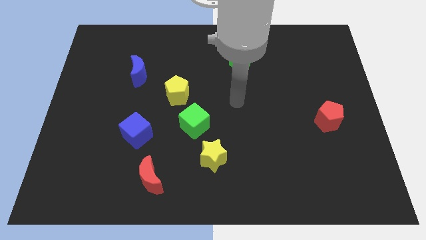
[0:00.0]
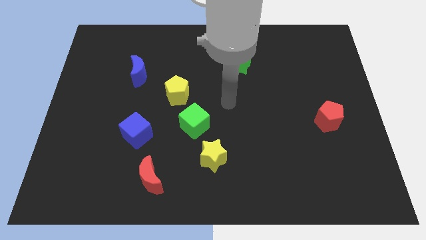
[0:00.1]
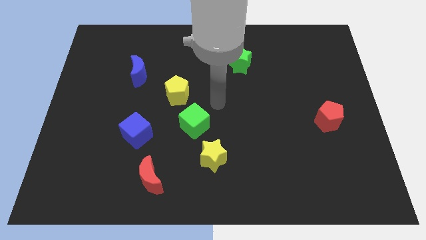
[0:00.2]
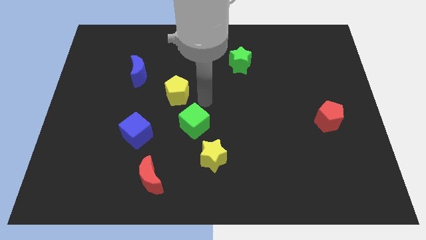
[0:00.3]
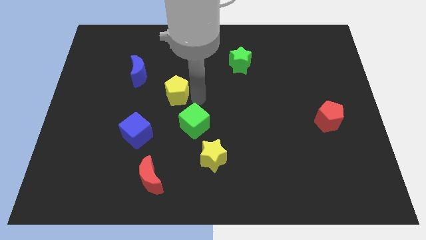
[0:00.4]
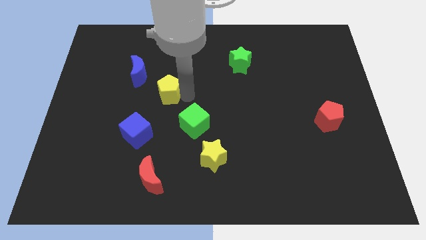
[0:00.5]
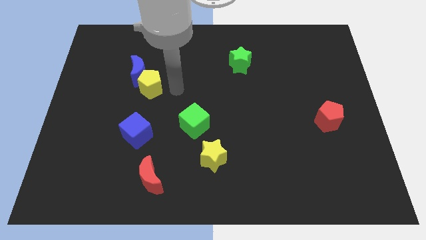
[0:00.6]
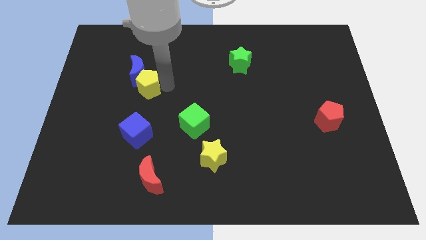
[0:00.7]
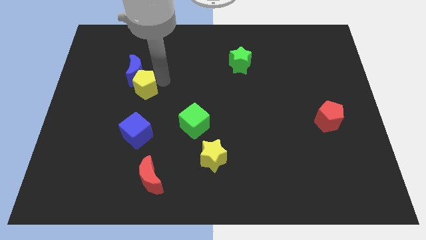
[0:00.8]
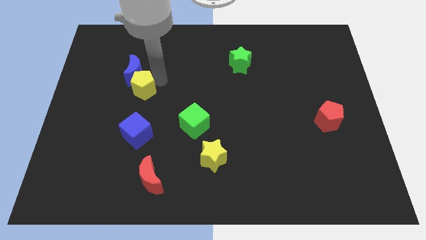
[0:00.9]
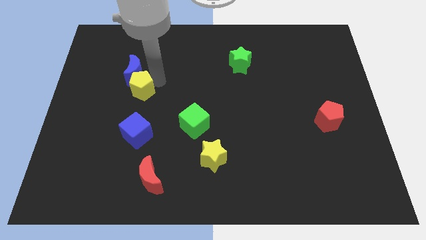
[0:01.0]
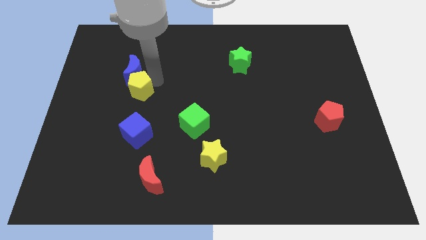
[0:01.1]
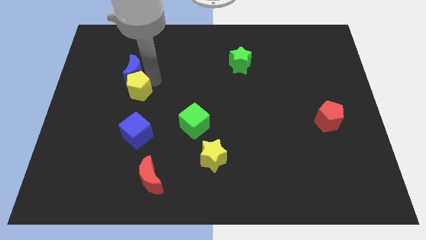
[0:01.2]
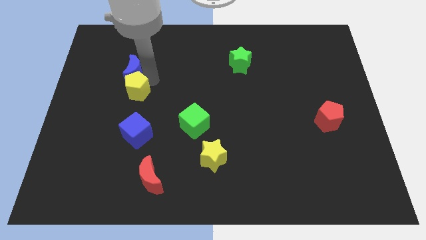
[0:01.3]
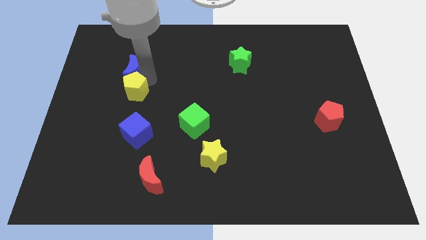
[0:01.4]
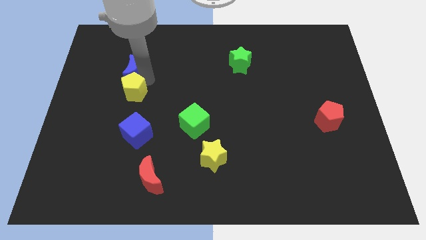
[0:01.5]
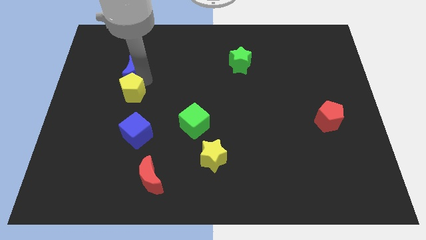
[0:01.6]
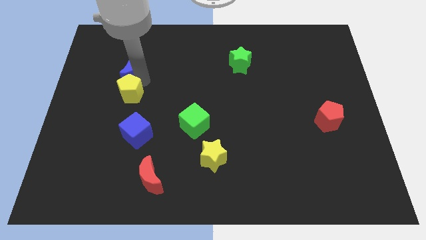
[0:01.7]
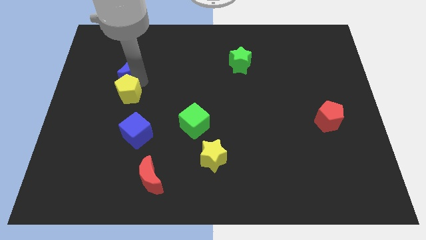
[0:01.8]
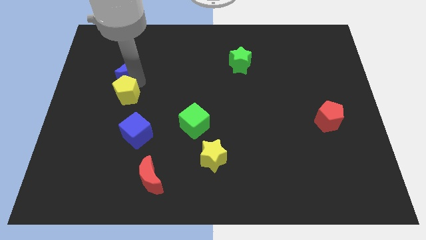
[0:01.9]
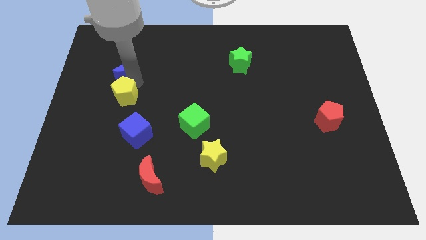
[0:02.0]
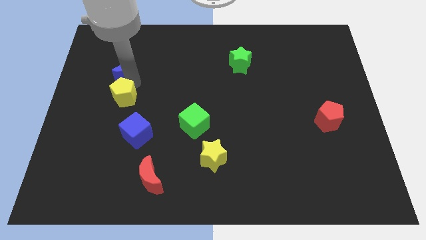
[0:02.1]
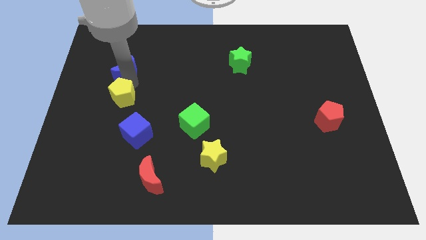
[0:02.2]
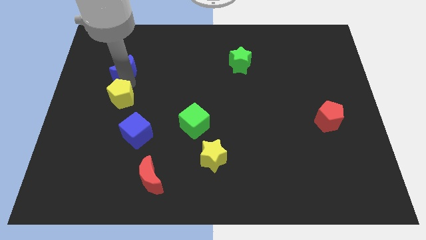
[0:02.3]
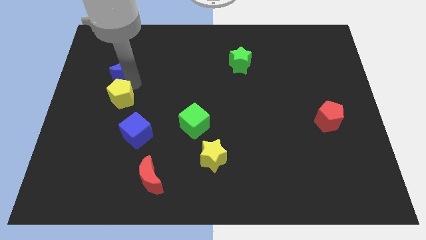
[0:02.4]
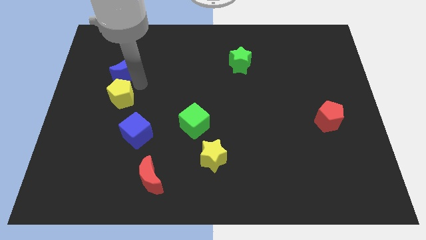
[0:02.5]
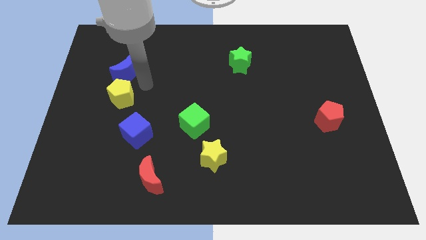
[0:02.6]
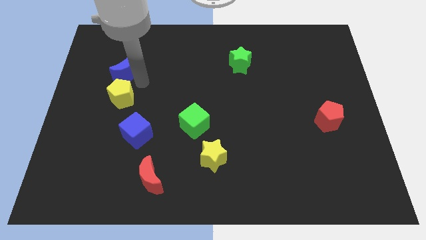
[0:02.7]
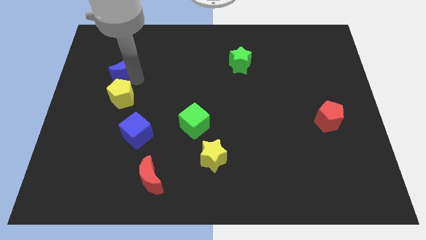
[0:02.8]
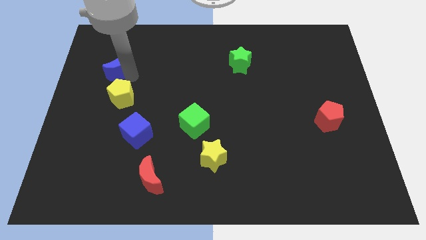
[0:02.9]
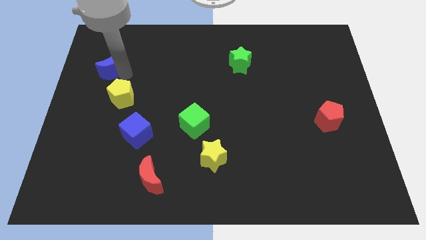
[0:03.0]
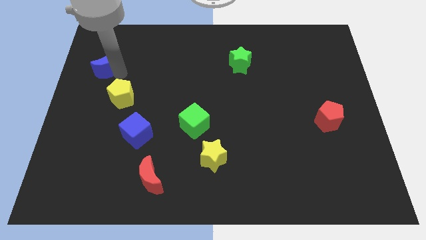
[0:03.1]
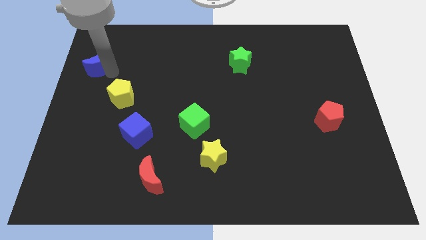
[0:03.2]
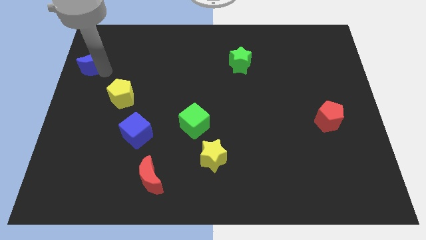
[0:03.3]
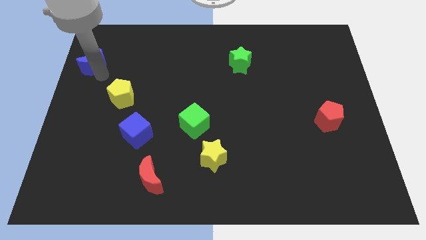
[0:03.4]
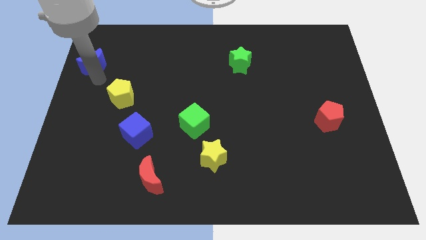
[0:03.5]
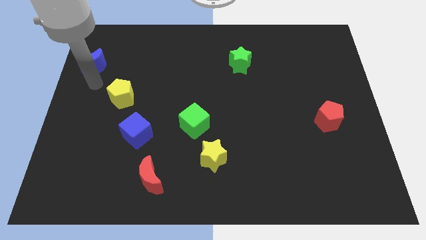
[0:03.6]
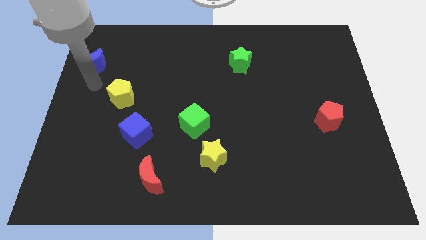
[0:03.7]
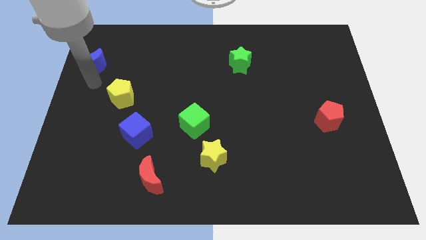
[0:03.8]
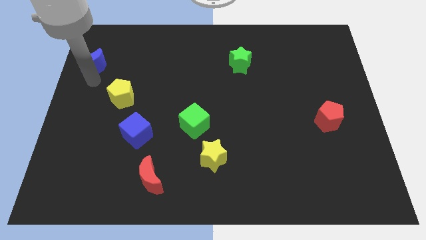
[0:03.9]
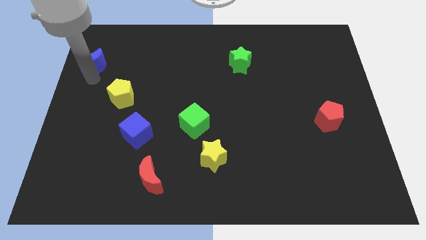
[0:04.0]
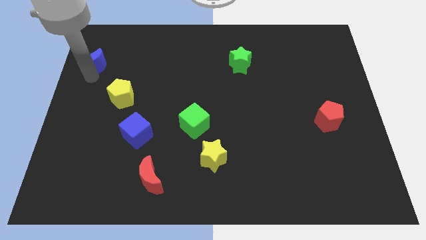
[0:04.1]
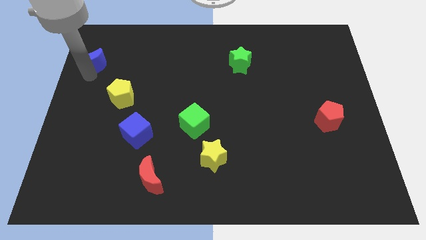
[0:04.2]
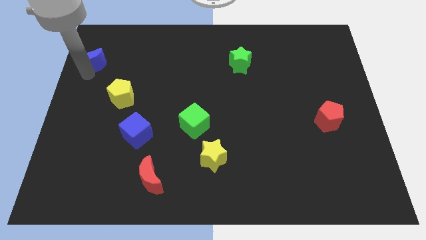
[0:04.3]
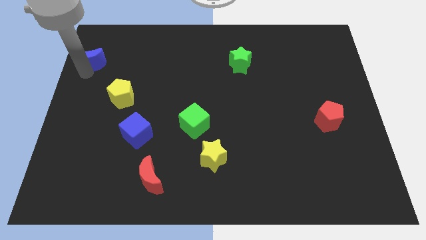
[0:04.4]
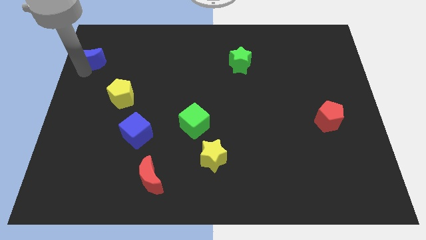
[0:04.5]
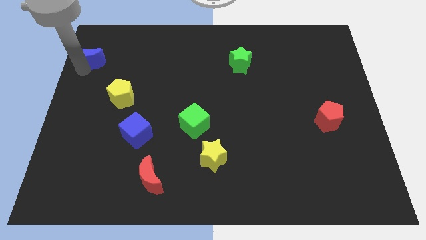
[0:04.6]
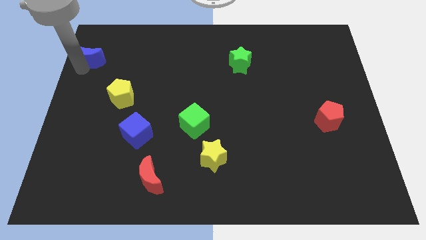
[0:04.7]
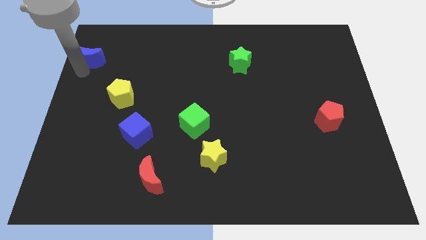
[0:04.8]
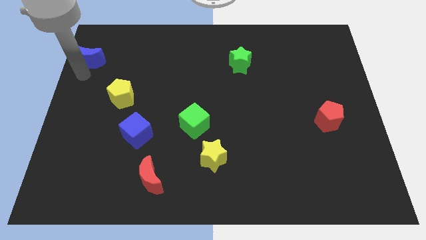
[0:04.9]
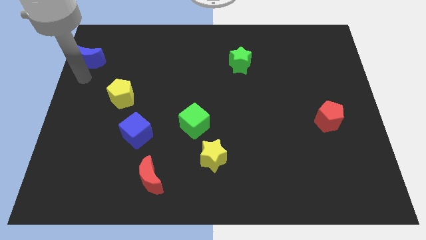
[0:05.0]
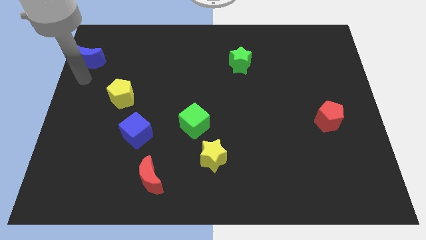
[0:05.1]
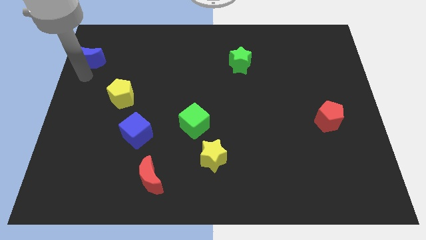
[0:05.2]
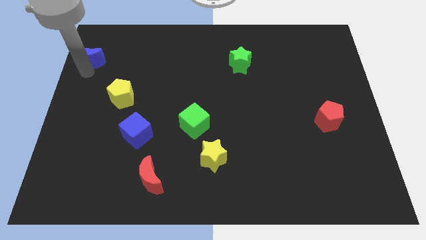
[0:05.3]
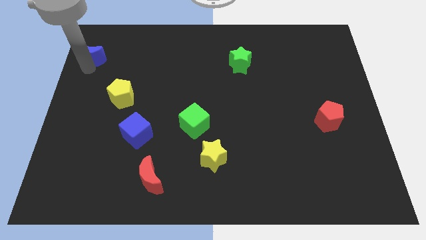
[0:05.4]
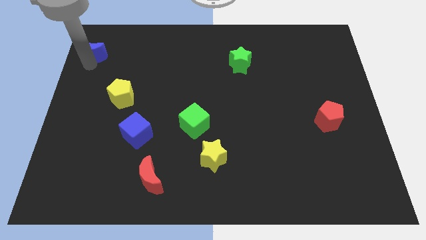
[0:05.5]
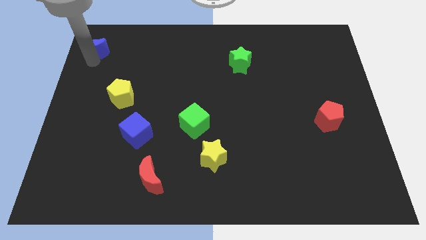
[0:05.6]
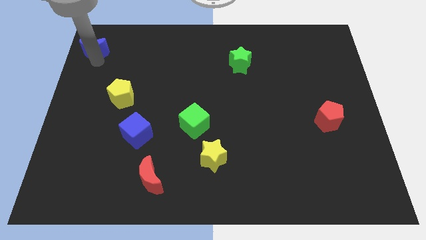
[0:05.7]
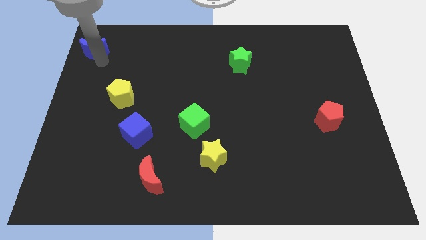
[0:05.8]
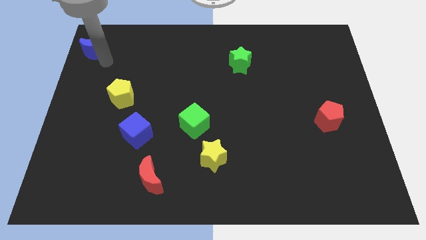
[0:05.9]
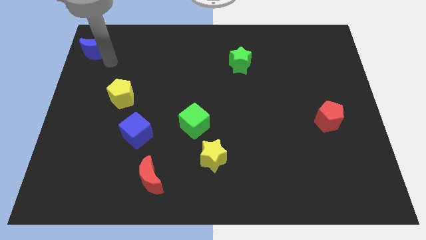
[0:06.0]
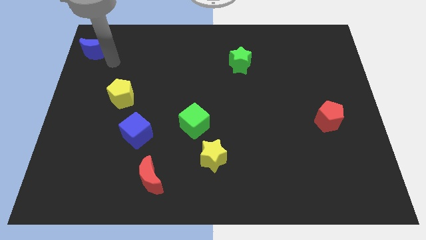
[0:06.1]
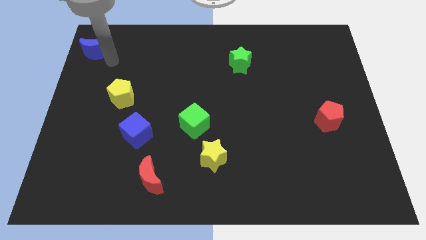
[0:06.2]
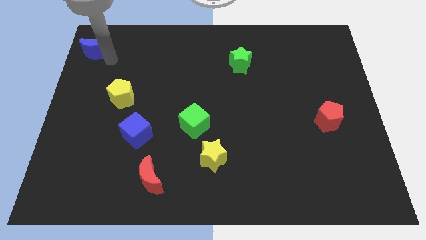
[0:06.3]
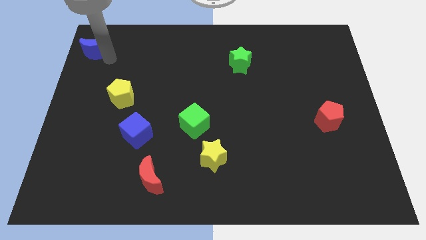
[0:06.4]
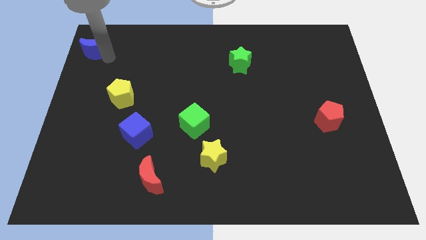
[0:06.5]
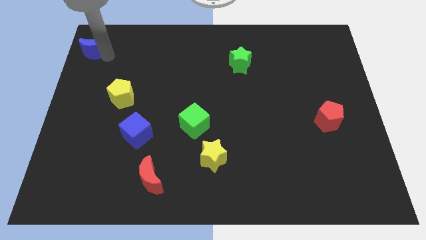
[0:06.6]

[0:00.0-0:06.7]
slide the blue moon to the upper left corner
